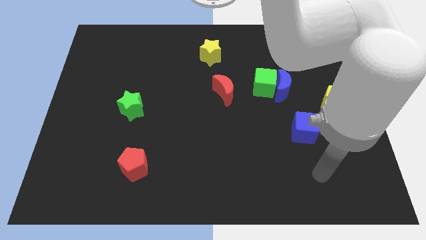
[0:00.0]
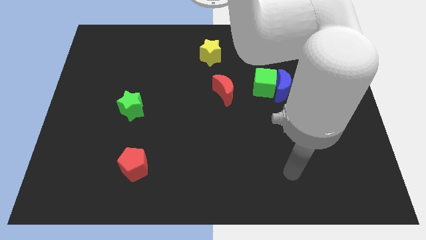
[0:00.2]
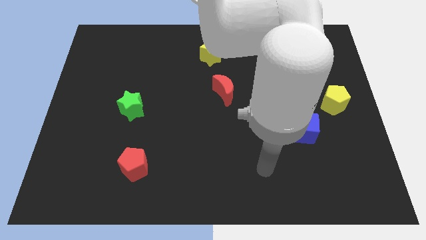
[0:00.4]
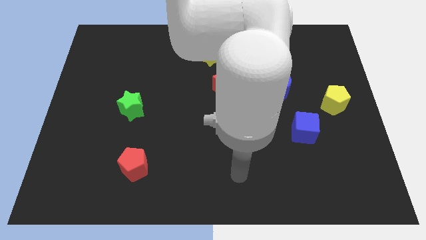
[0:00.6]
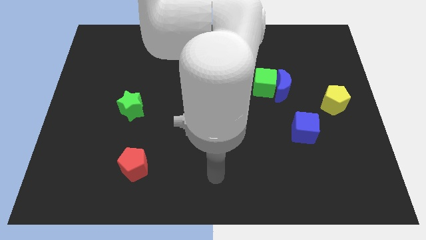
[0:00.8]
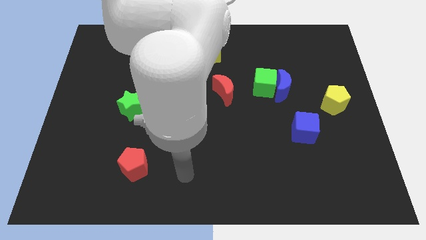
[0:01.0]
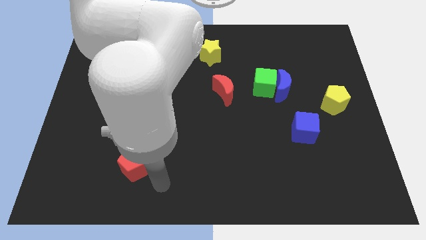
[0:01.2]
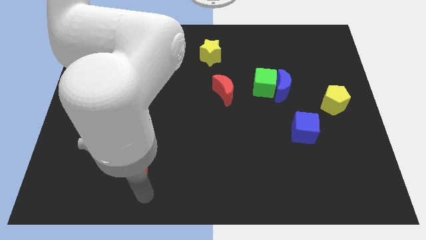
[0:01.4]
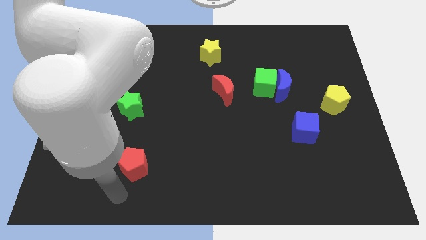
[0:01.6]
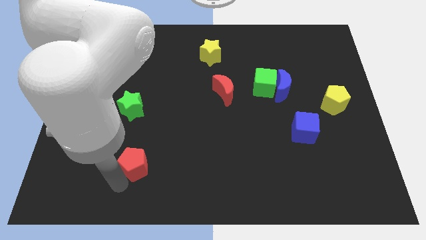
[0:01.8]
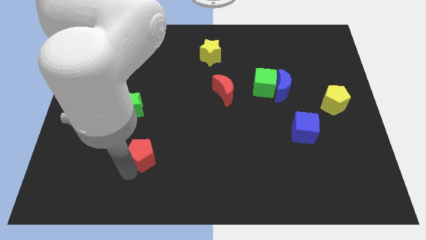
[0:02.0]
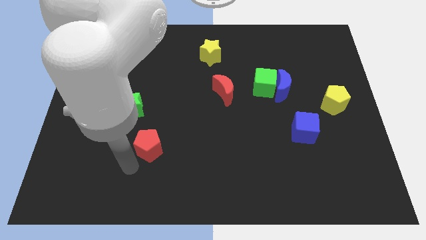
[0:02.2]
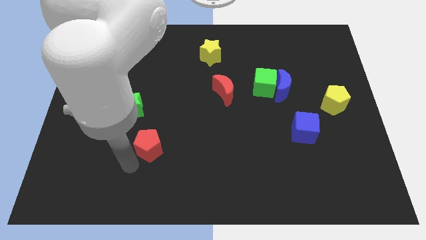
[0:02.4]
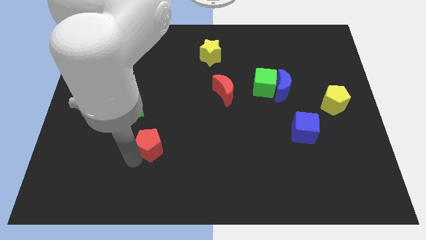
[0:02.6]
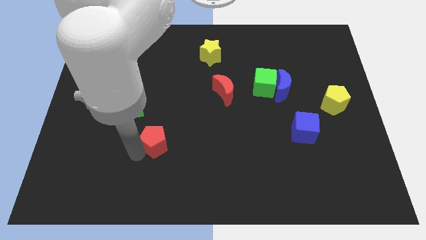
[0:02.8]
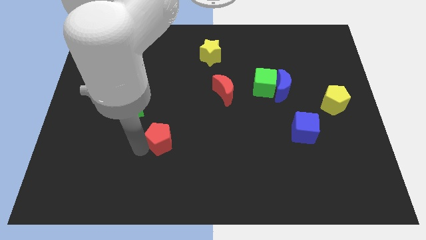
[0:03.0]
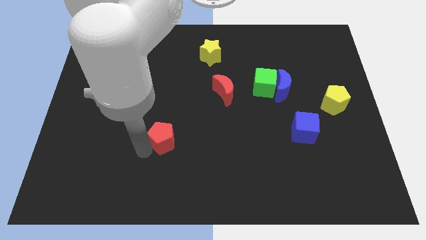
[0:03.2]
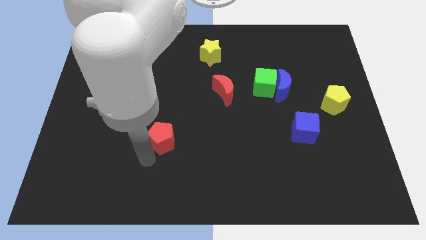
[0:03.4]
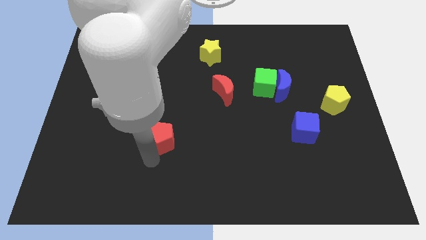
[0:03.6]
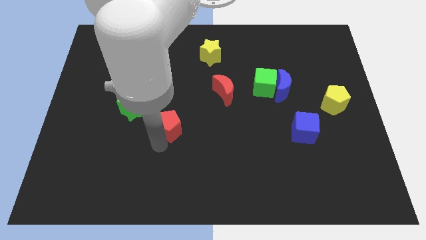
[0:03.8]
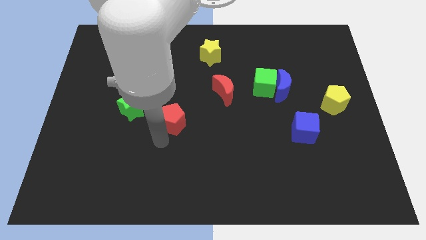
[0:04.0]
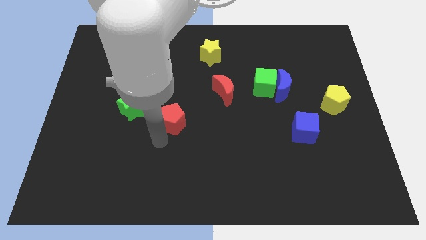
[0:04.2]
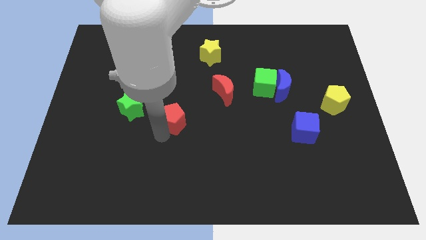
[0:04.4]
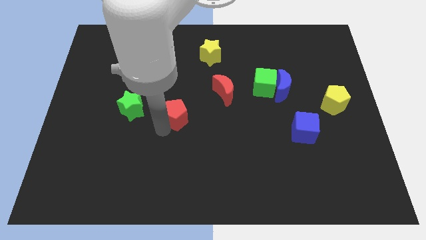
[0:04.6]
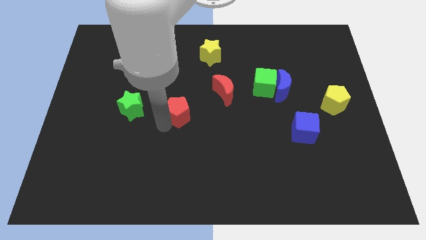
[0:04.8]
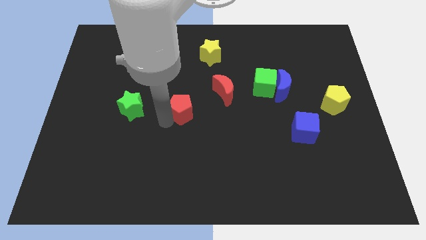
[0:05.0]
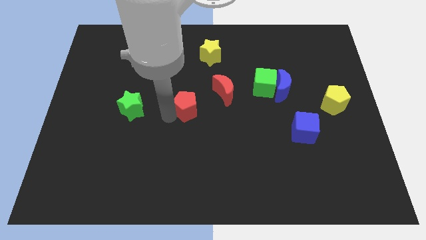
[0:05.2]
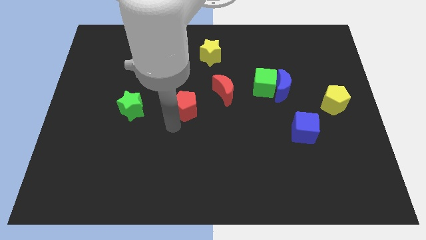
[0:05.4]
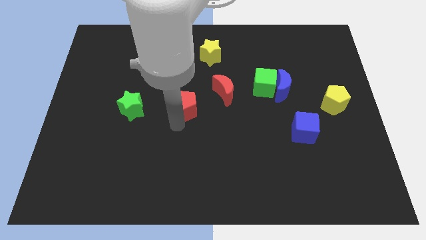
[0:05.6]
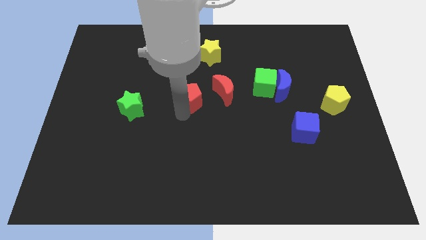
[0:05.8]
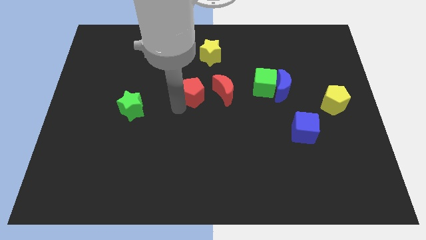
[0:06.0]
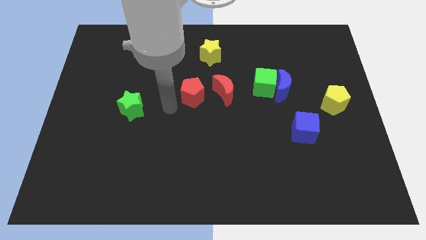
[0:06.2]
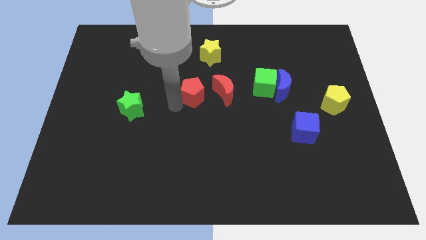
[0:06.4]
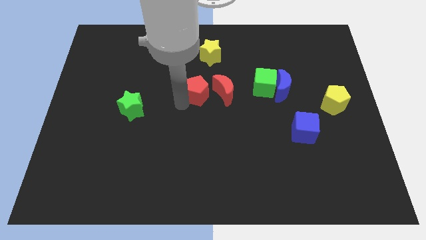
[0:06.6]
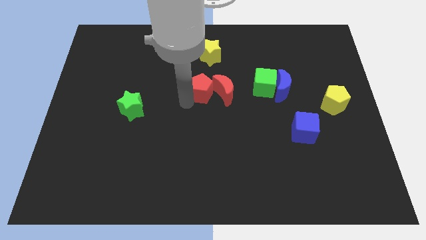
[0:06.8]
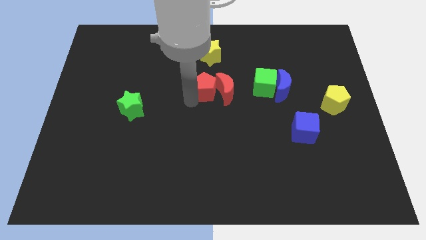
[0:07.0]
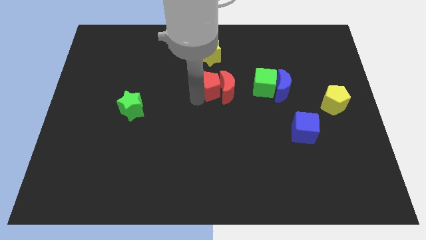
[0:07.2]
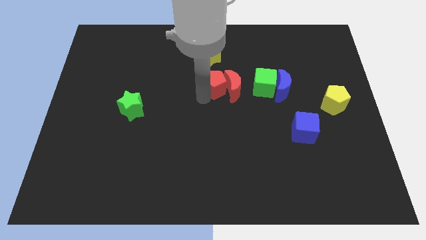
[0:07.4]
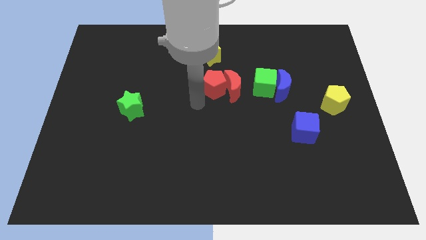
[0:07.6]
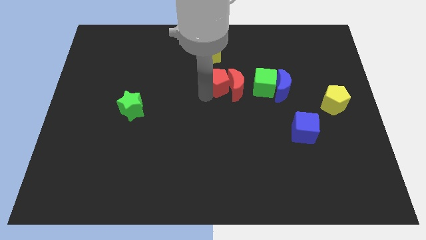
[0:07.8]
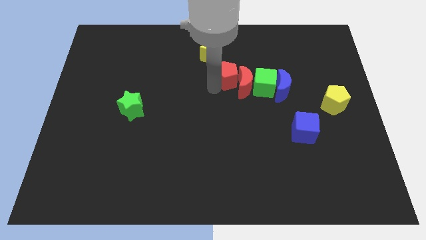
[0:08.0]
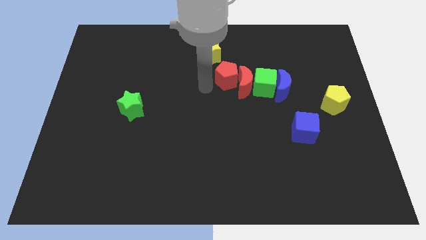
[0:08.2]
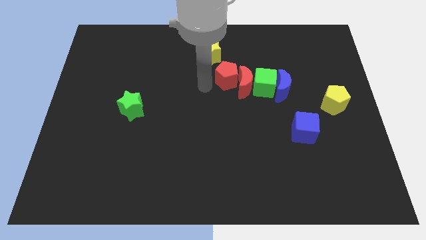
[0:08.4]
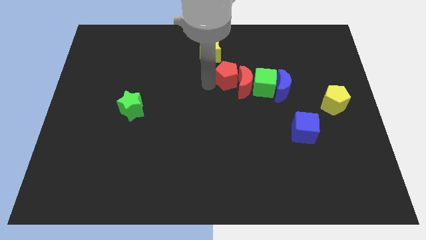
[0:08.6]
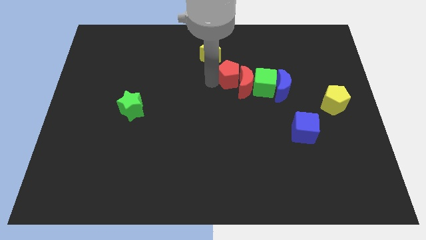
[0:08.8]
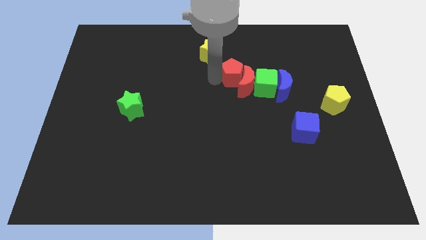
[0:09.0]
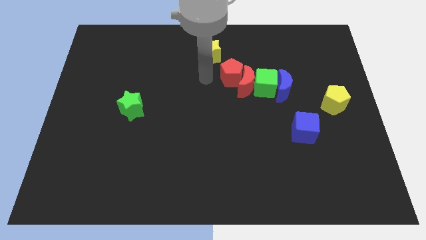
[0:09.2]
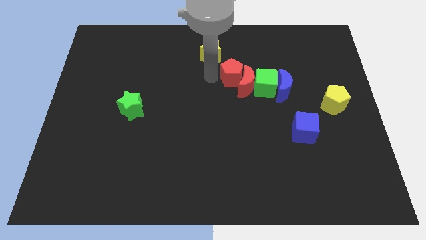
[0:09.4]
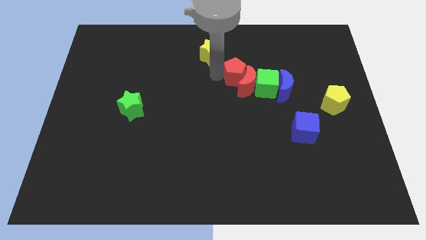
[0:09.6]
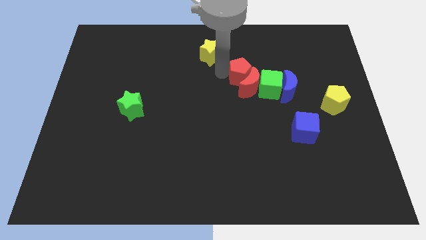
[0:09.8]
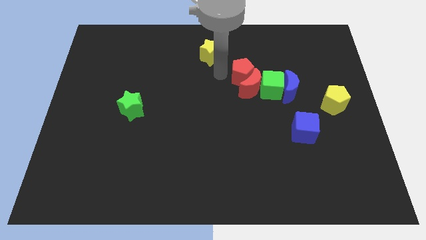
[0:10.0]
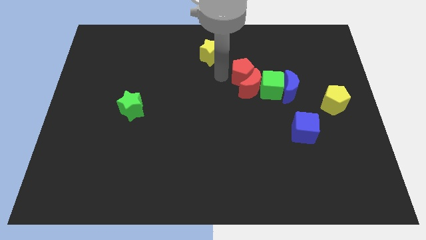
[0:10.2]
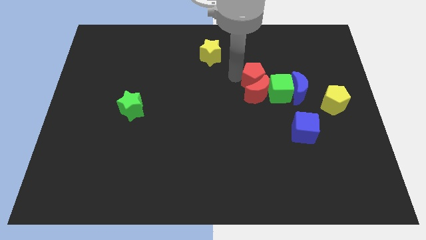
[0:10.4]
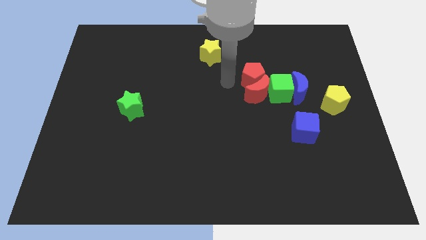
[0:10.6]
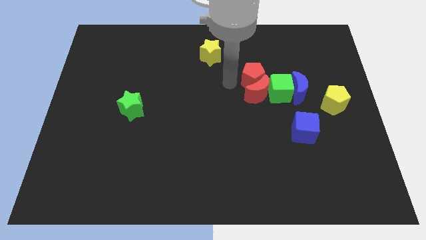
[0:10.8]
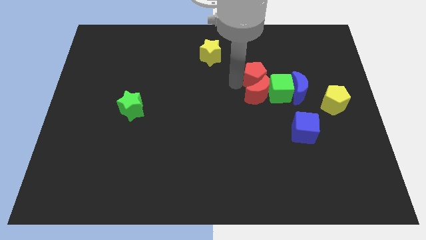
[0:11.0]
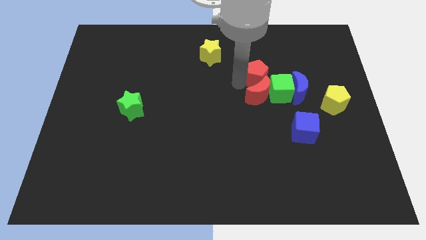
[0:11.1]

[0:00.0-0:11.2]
put the red pentagon diagonally up and to the left of the blue moon

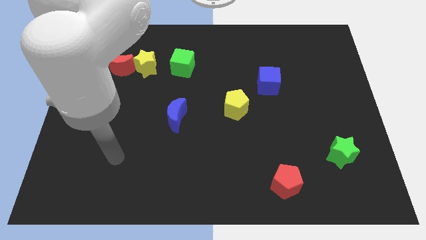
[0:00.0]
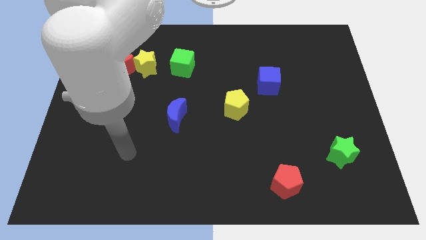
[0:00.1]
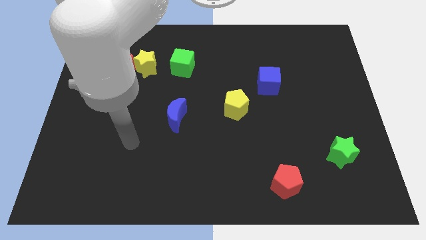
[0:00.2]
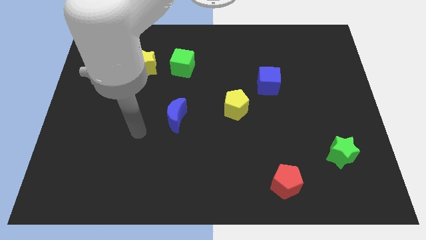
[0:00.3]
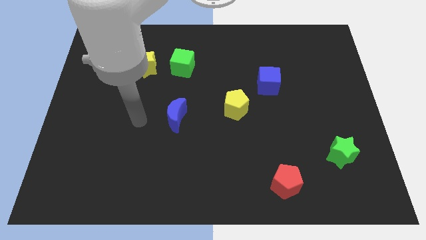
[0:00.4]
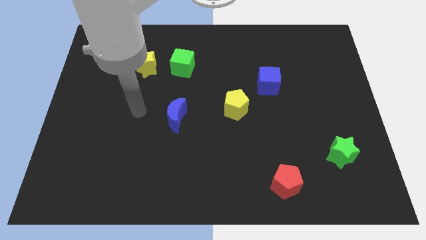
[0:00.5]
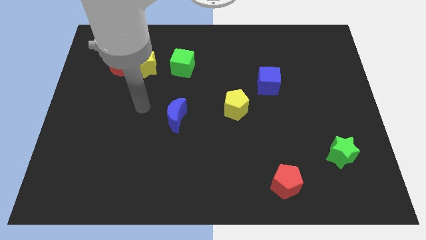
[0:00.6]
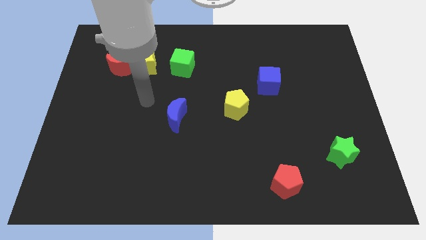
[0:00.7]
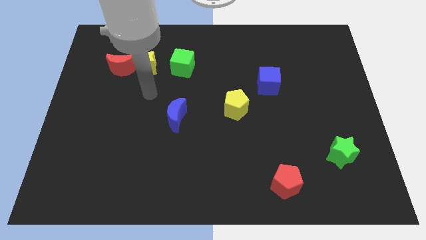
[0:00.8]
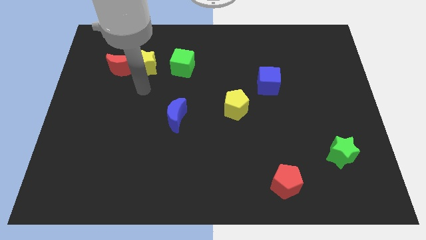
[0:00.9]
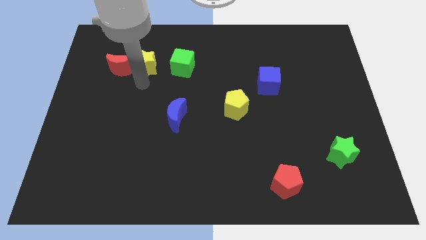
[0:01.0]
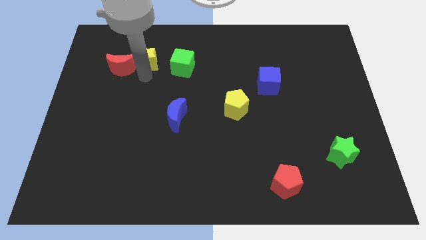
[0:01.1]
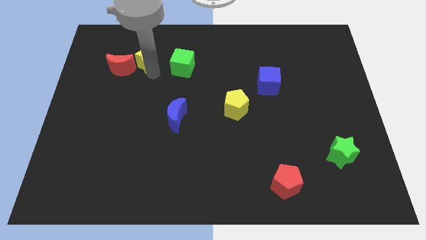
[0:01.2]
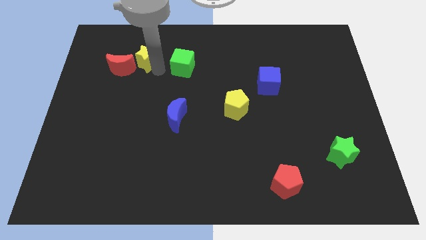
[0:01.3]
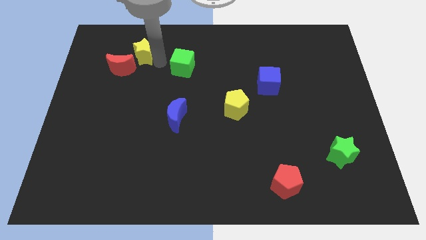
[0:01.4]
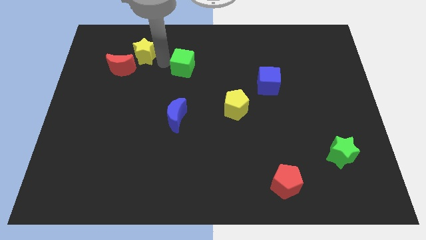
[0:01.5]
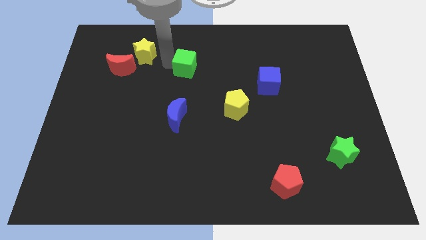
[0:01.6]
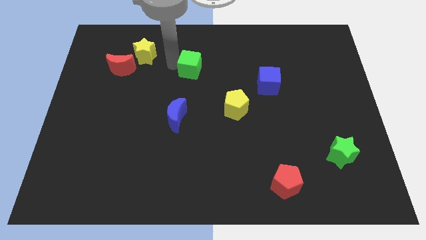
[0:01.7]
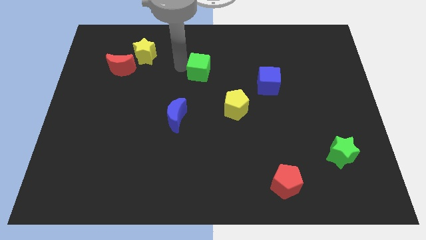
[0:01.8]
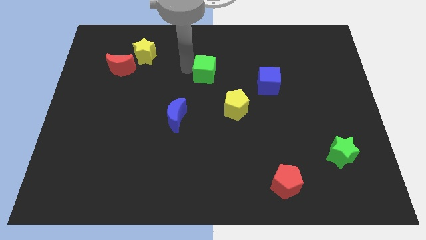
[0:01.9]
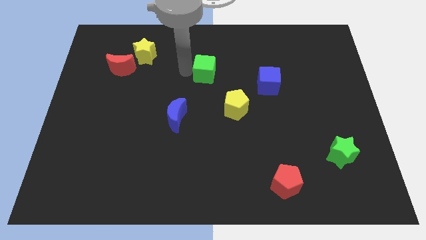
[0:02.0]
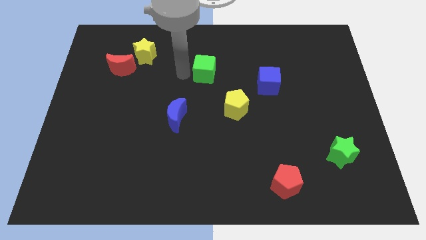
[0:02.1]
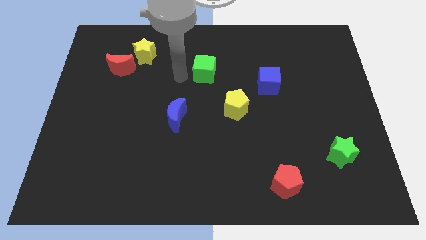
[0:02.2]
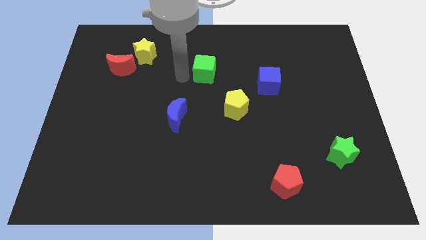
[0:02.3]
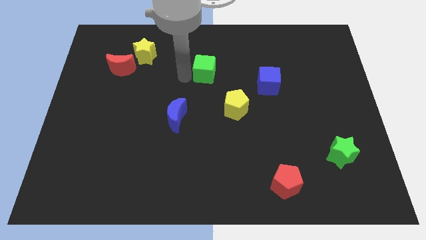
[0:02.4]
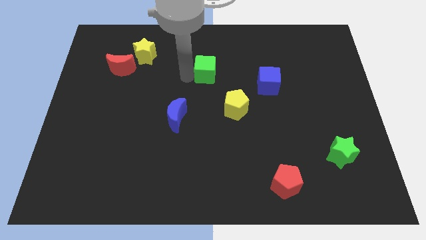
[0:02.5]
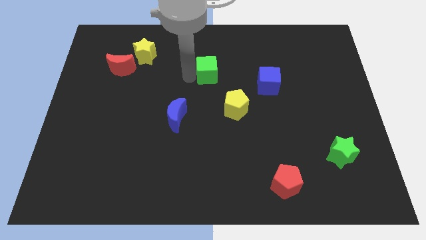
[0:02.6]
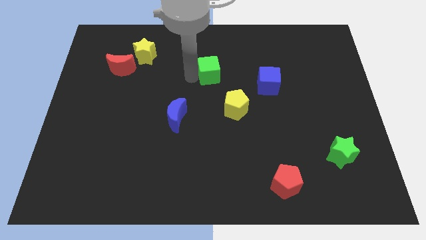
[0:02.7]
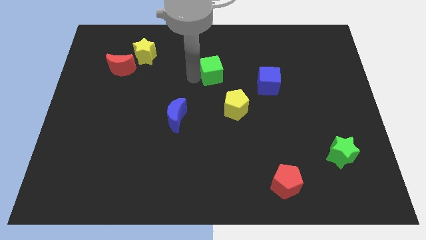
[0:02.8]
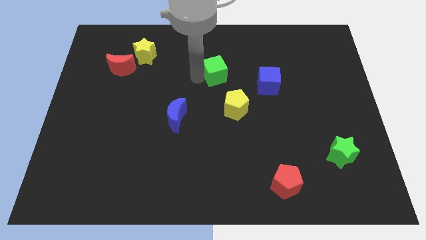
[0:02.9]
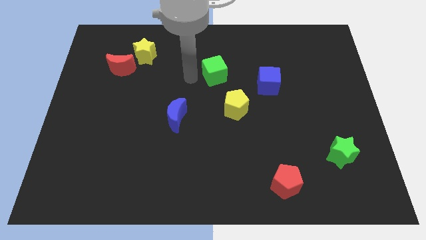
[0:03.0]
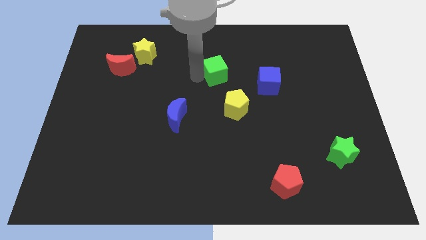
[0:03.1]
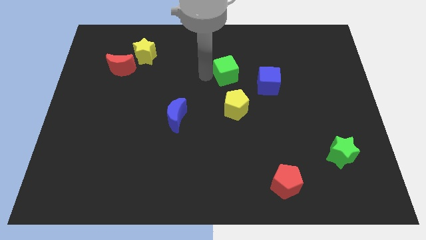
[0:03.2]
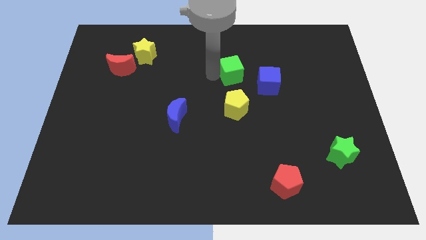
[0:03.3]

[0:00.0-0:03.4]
move the green cube to the top left of the blue cube
